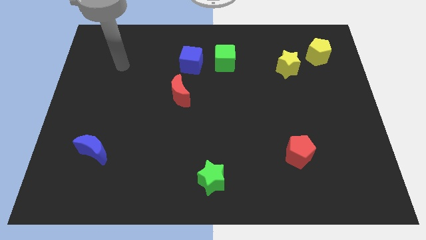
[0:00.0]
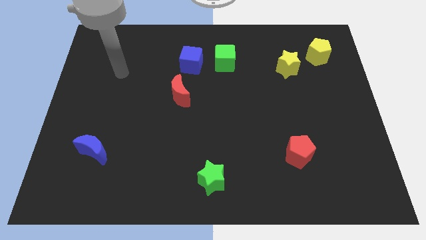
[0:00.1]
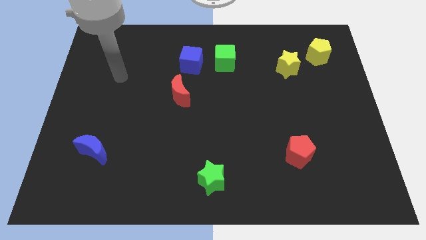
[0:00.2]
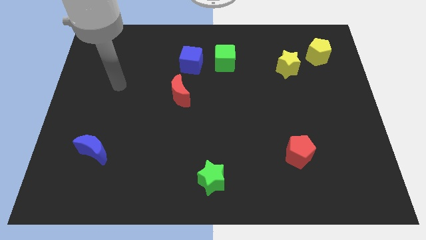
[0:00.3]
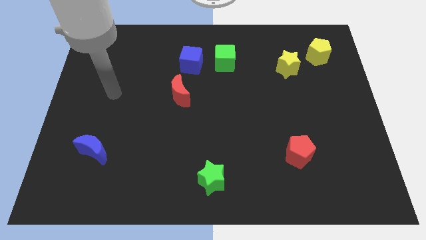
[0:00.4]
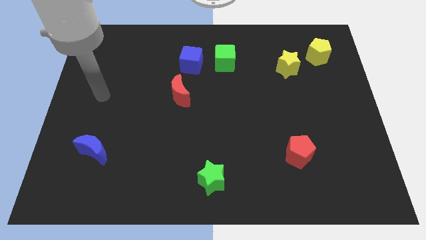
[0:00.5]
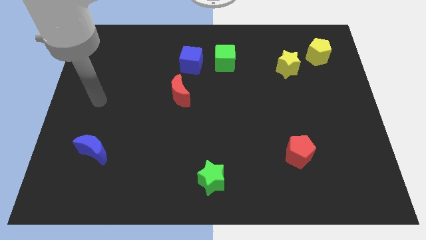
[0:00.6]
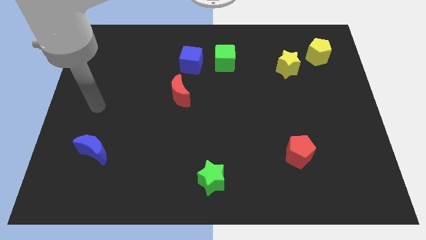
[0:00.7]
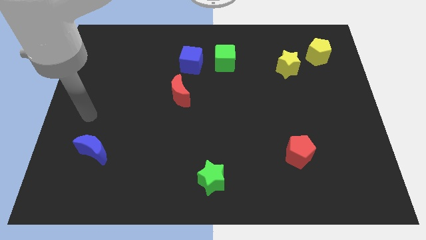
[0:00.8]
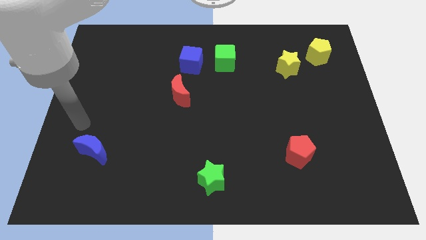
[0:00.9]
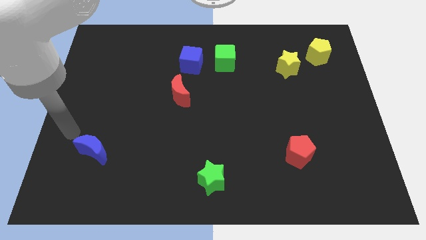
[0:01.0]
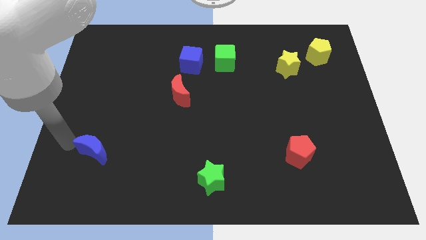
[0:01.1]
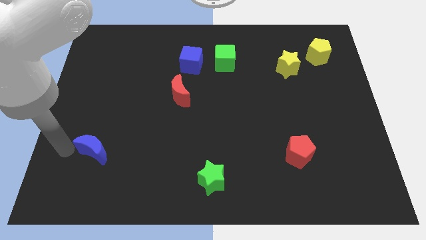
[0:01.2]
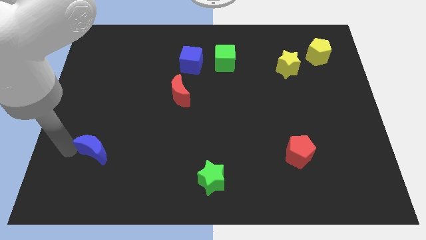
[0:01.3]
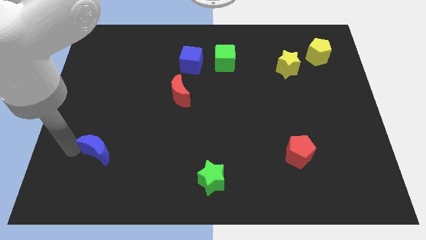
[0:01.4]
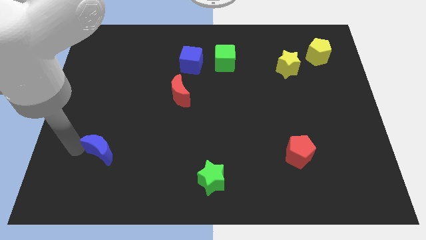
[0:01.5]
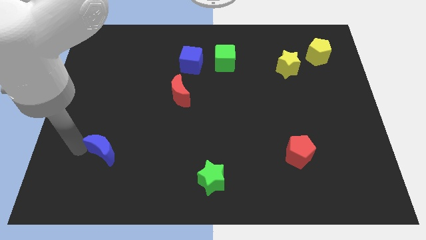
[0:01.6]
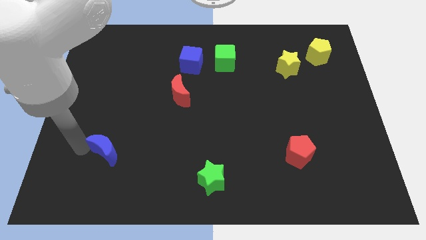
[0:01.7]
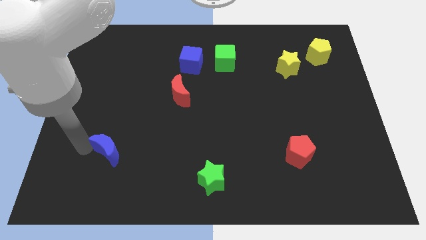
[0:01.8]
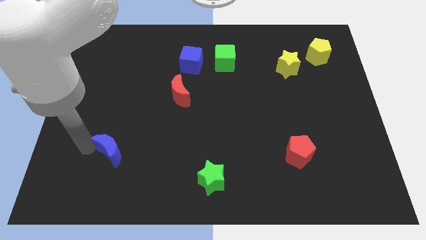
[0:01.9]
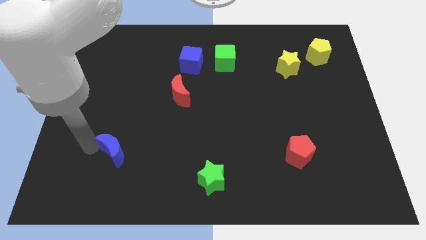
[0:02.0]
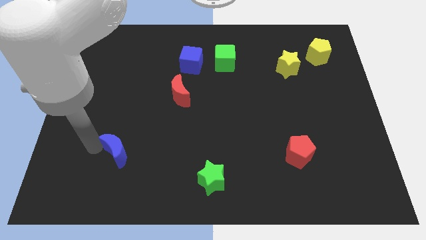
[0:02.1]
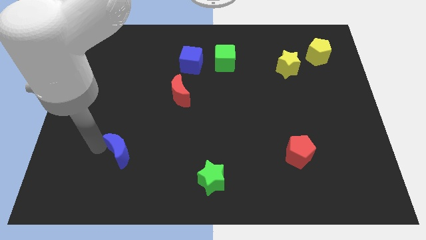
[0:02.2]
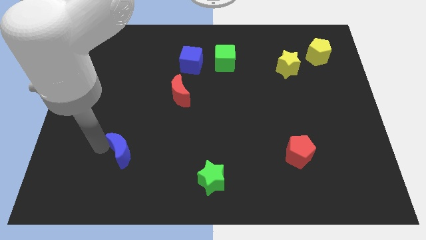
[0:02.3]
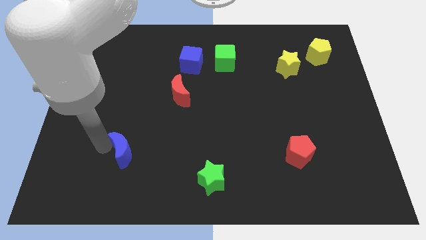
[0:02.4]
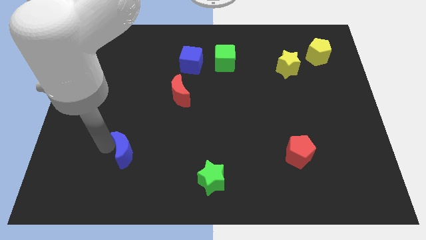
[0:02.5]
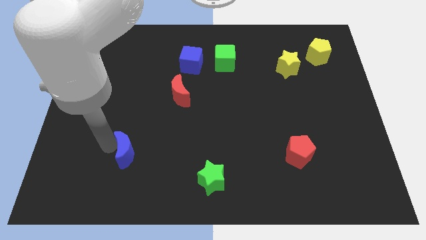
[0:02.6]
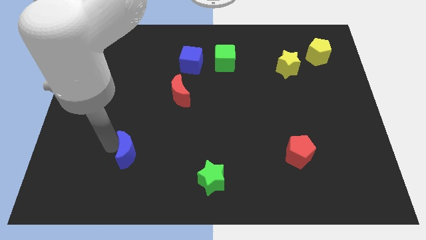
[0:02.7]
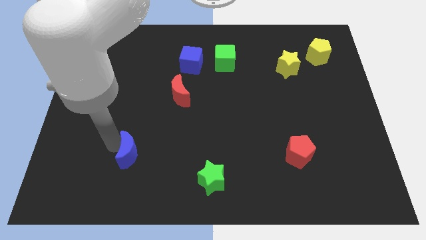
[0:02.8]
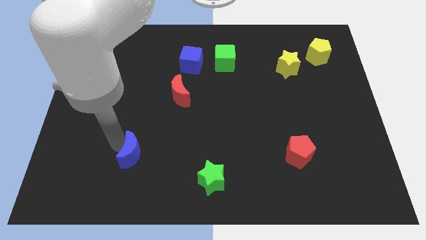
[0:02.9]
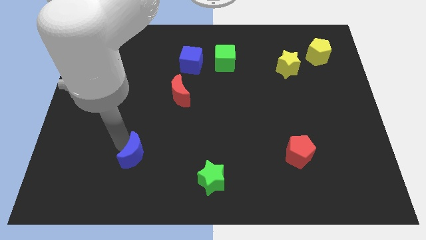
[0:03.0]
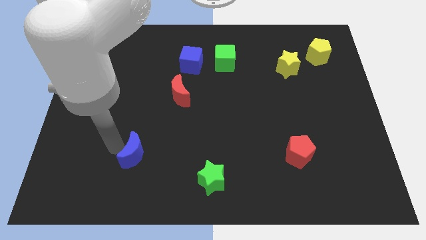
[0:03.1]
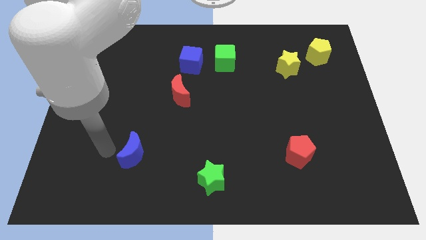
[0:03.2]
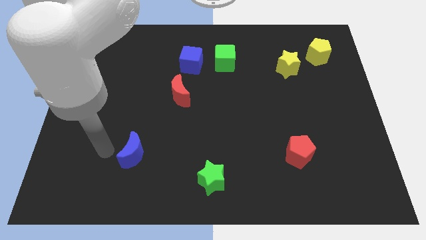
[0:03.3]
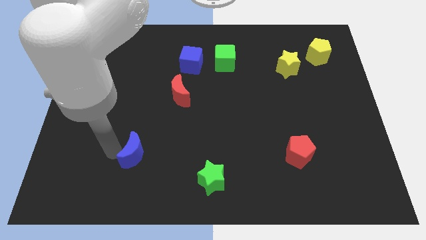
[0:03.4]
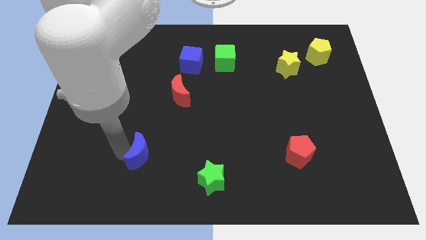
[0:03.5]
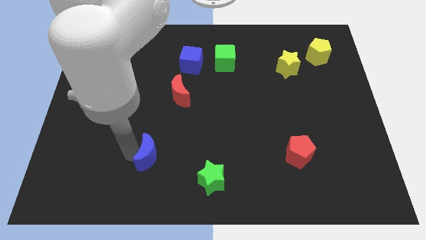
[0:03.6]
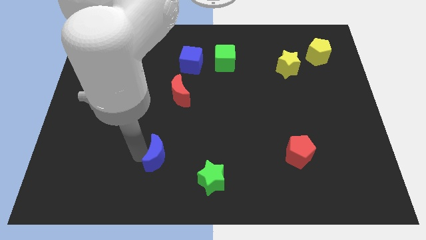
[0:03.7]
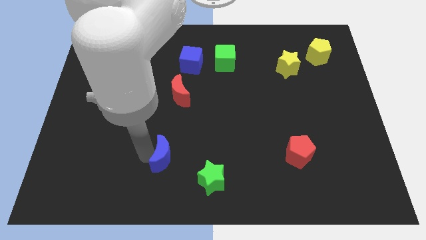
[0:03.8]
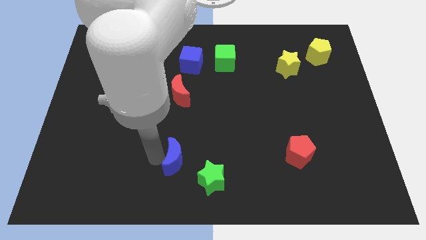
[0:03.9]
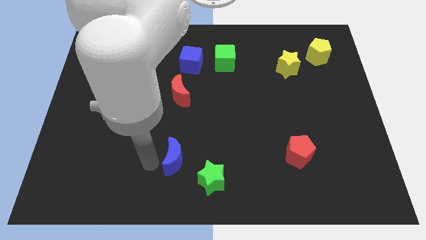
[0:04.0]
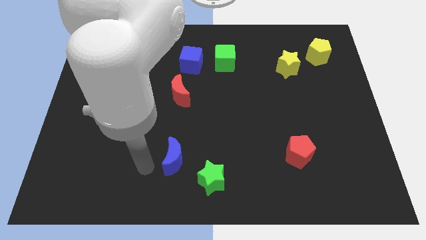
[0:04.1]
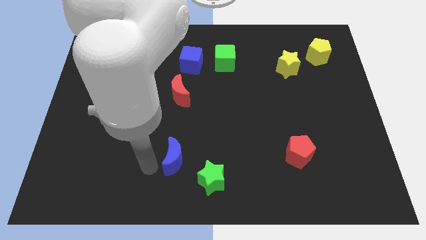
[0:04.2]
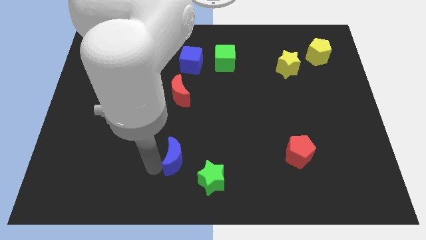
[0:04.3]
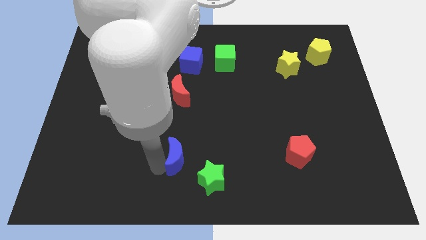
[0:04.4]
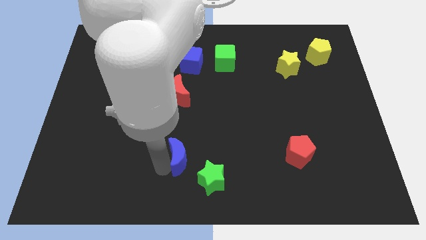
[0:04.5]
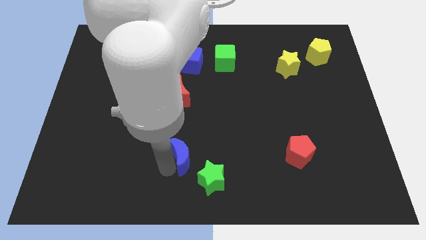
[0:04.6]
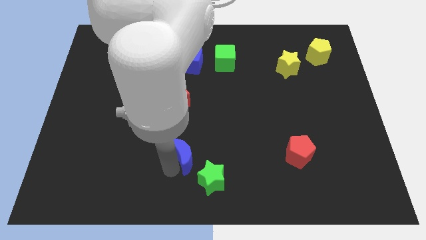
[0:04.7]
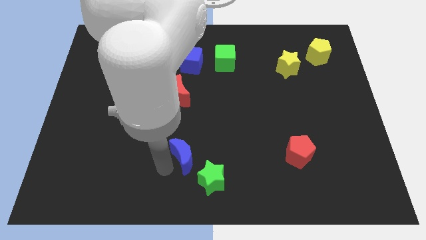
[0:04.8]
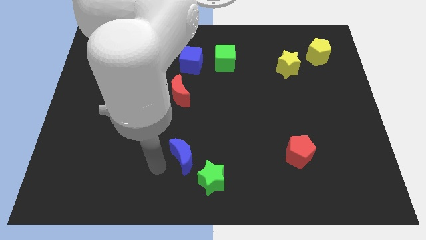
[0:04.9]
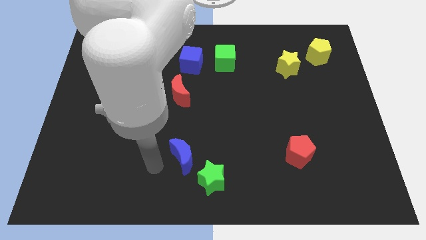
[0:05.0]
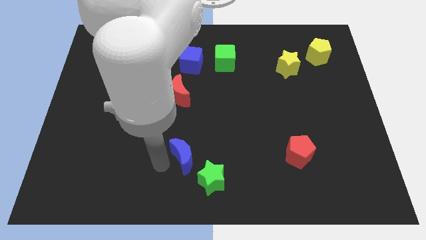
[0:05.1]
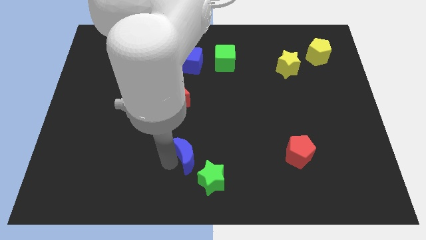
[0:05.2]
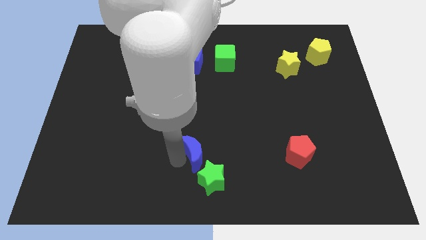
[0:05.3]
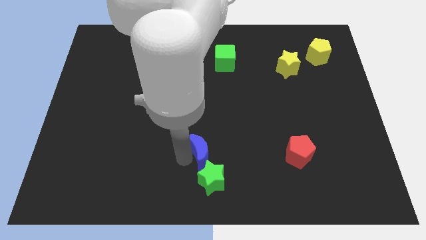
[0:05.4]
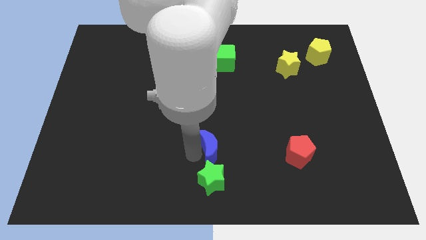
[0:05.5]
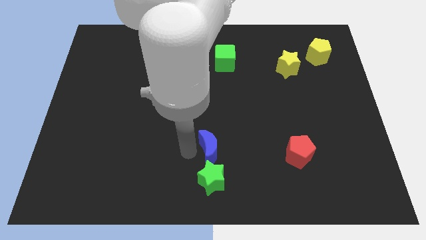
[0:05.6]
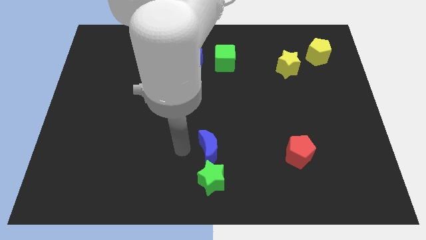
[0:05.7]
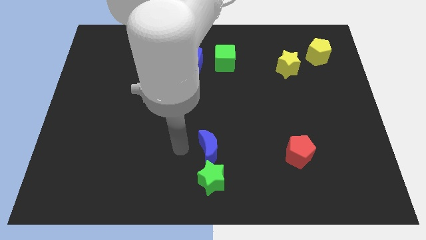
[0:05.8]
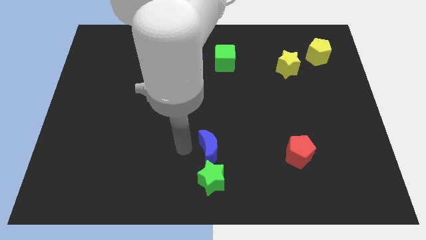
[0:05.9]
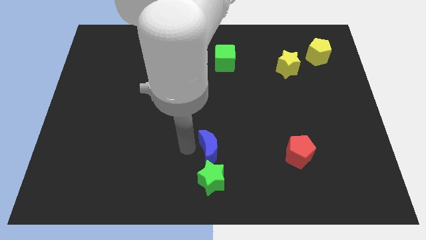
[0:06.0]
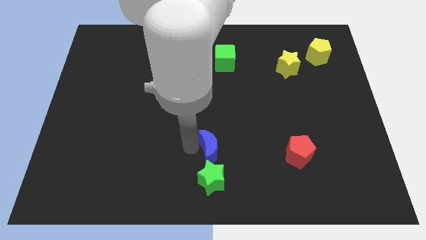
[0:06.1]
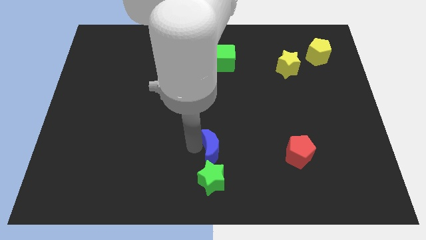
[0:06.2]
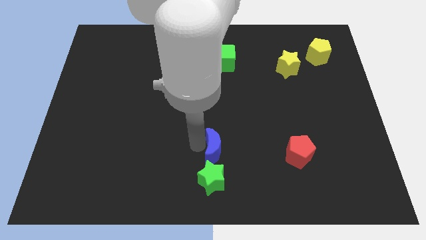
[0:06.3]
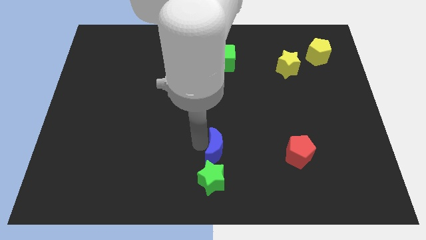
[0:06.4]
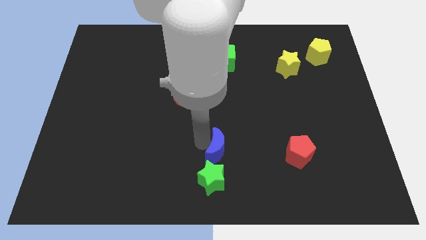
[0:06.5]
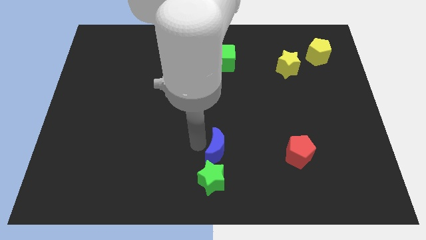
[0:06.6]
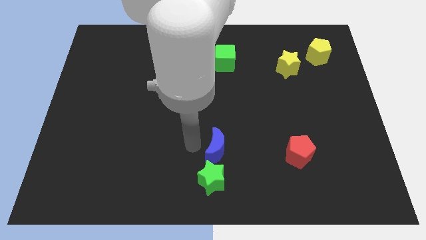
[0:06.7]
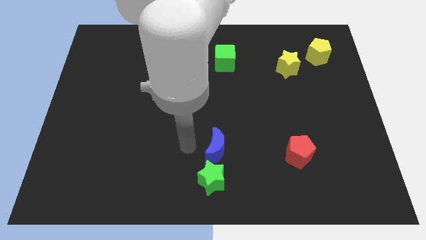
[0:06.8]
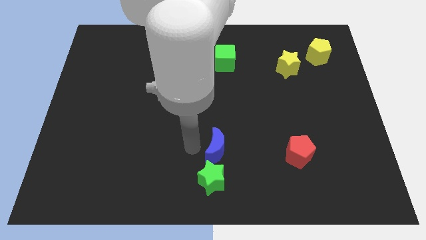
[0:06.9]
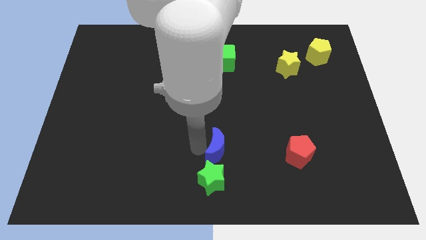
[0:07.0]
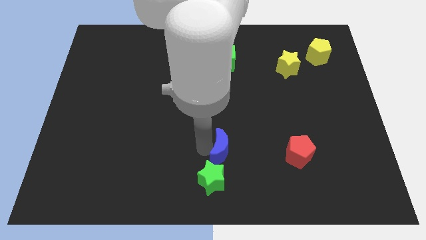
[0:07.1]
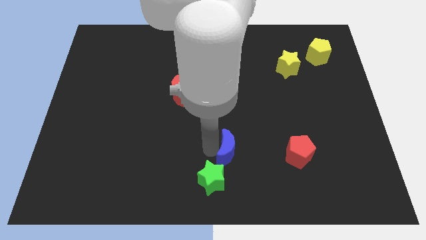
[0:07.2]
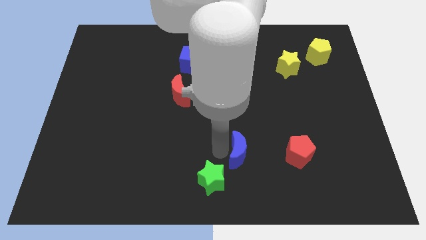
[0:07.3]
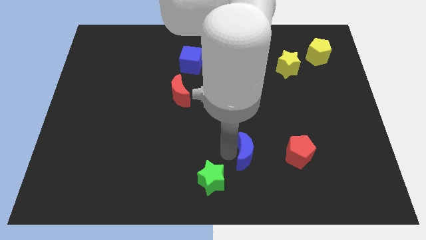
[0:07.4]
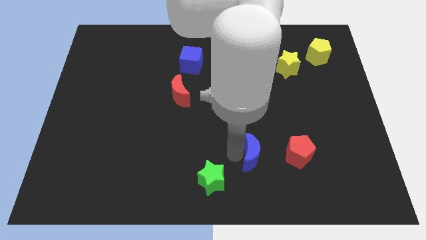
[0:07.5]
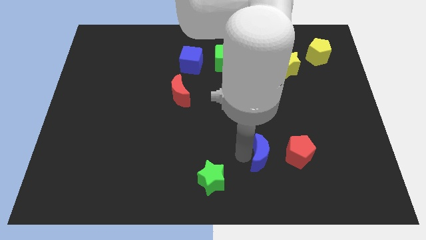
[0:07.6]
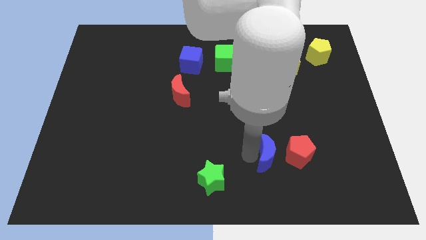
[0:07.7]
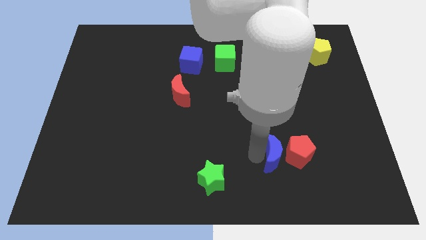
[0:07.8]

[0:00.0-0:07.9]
put the blue moon next to the red pentagon
